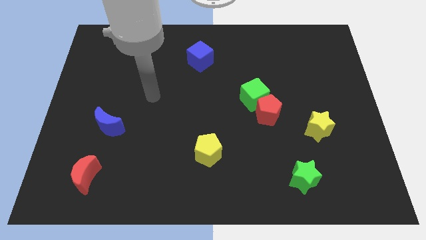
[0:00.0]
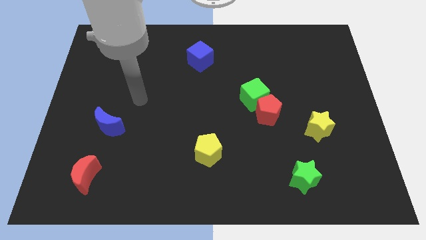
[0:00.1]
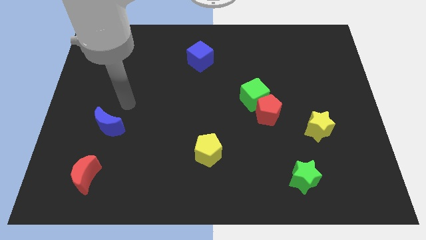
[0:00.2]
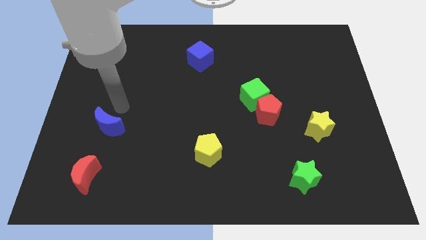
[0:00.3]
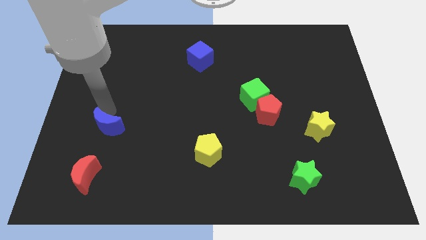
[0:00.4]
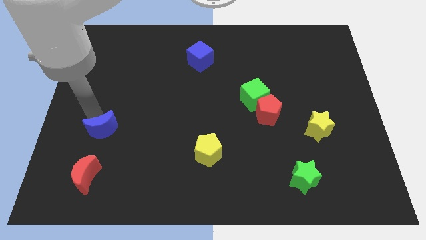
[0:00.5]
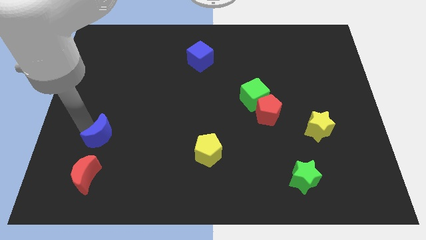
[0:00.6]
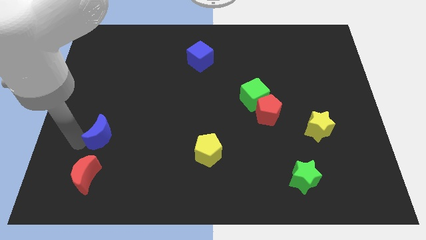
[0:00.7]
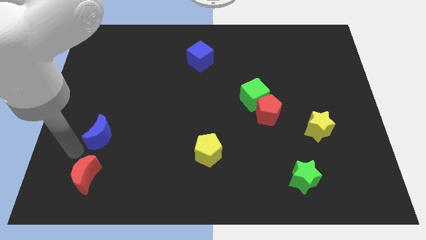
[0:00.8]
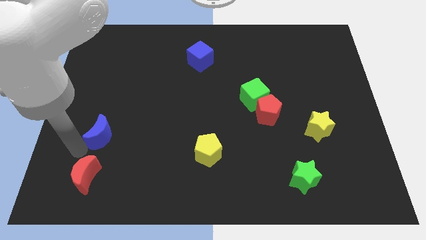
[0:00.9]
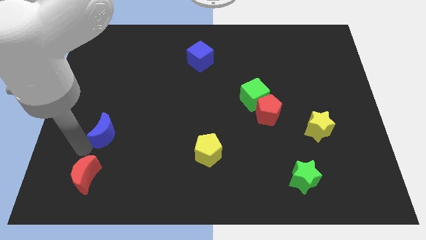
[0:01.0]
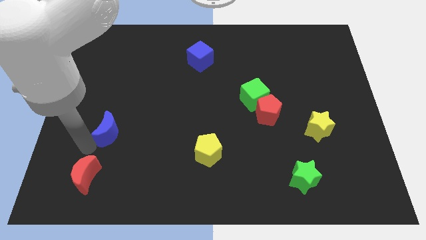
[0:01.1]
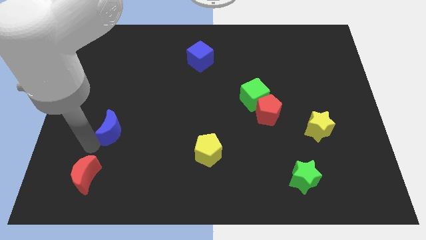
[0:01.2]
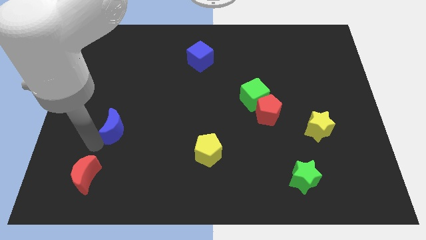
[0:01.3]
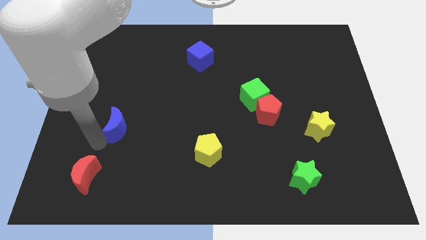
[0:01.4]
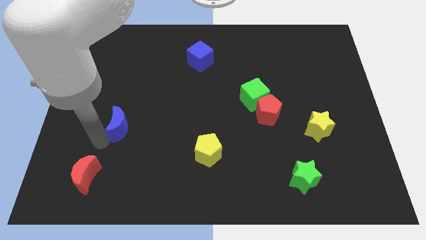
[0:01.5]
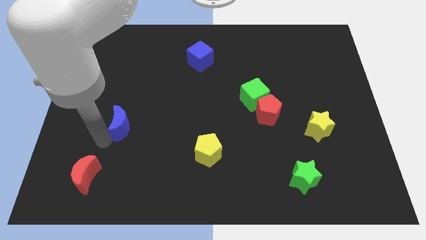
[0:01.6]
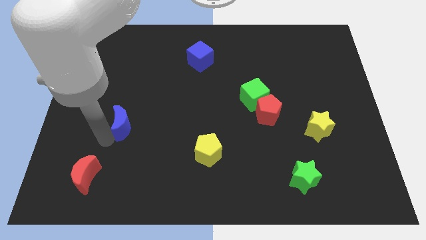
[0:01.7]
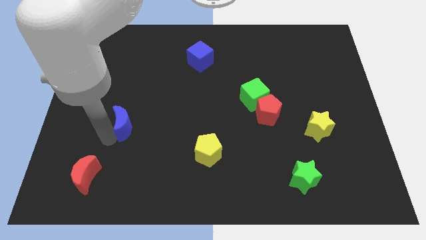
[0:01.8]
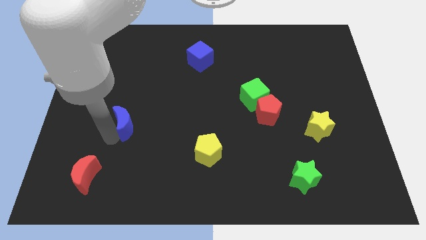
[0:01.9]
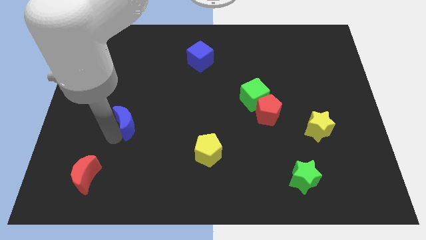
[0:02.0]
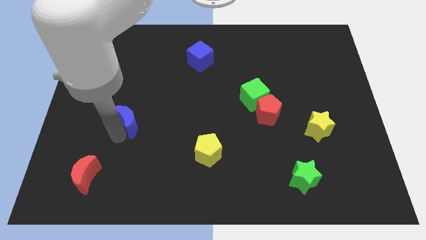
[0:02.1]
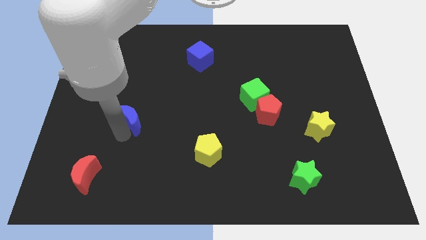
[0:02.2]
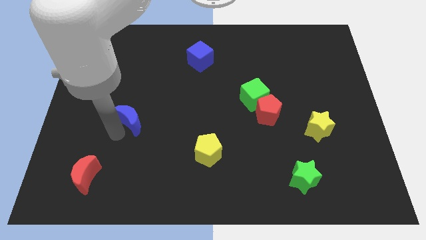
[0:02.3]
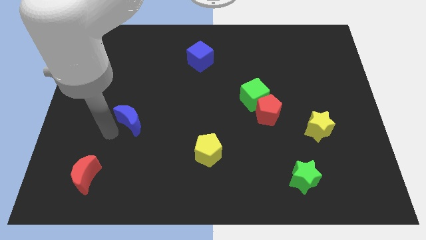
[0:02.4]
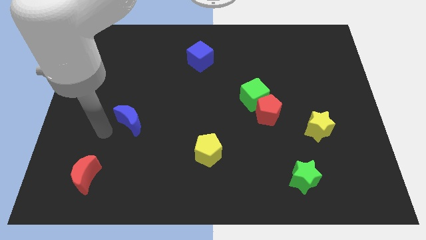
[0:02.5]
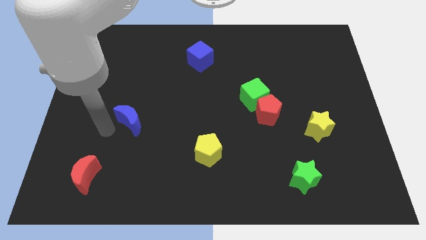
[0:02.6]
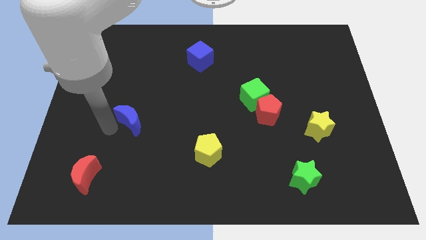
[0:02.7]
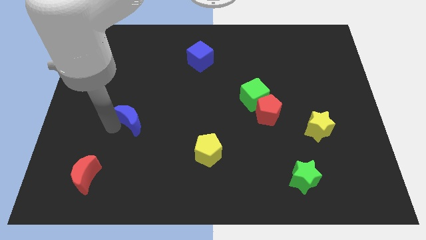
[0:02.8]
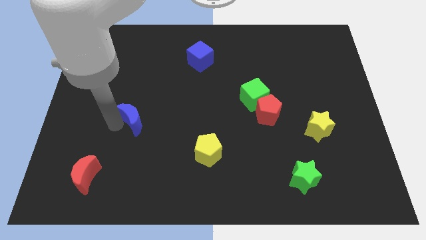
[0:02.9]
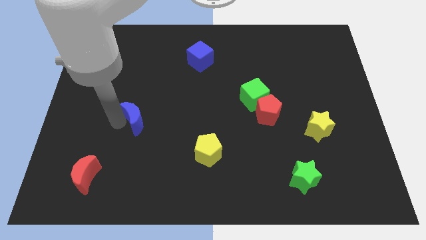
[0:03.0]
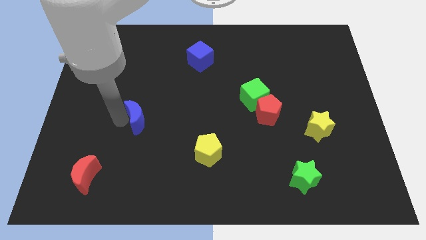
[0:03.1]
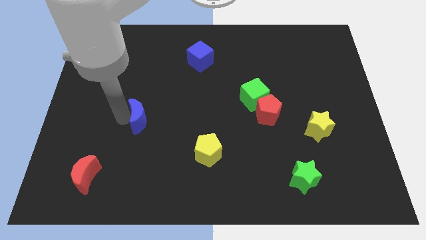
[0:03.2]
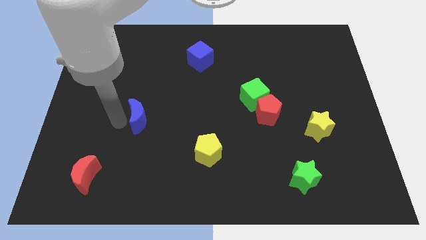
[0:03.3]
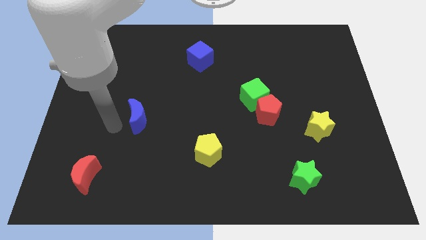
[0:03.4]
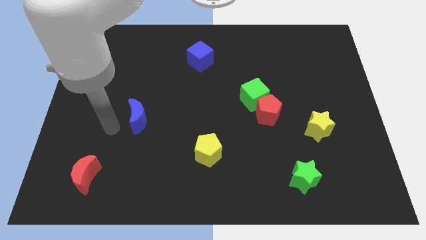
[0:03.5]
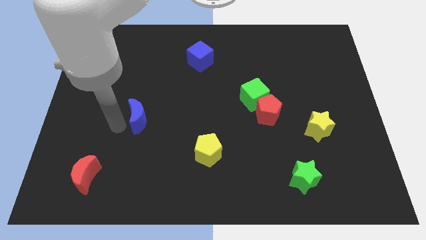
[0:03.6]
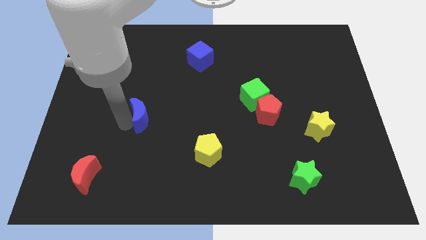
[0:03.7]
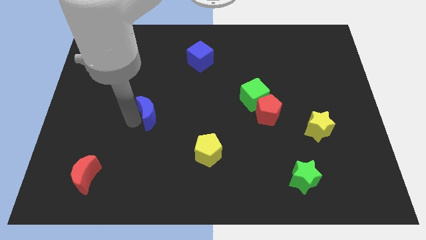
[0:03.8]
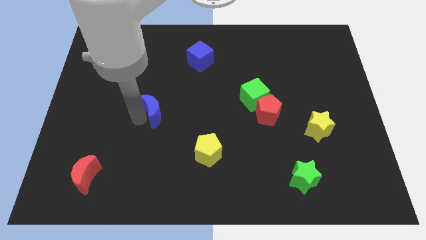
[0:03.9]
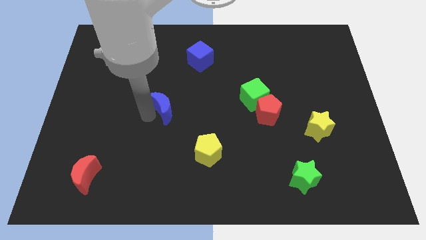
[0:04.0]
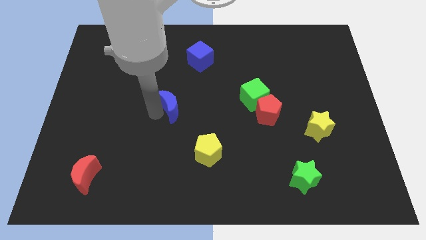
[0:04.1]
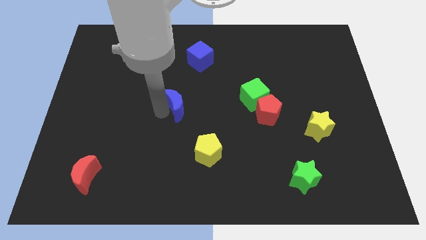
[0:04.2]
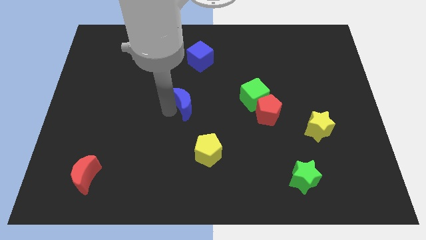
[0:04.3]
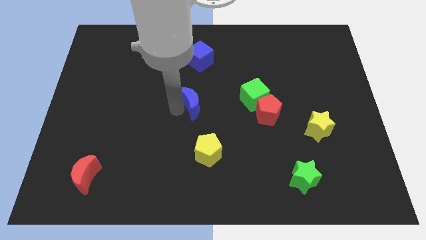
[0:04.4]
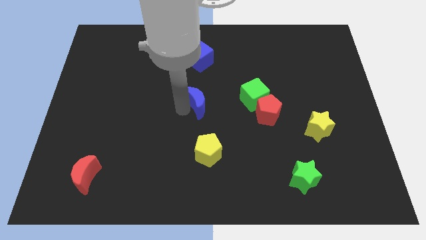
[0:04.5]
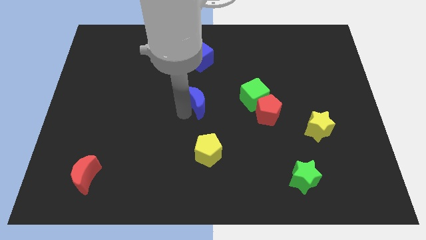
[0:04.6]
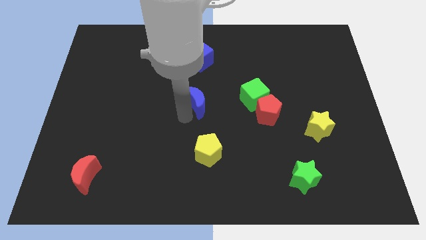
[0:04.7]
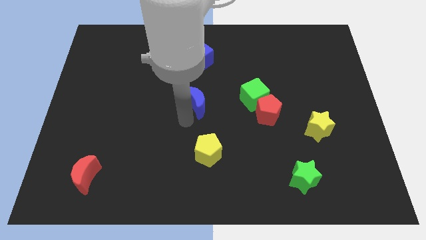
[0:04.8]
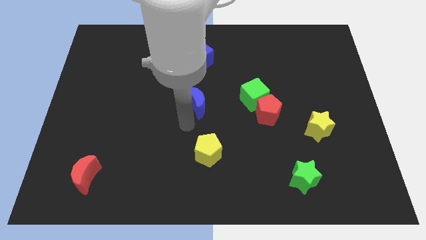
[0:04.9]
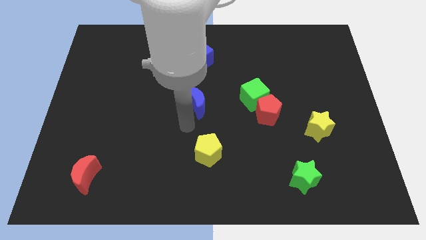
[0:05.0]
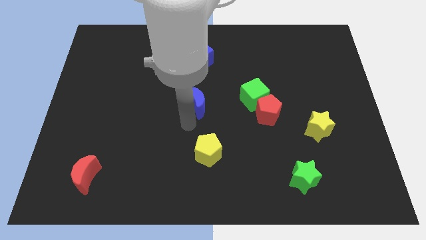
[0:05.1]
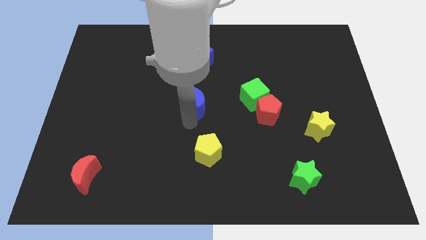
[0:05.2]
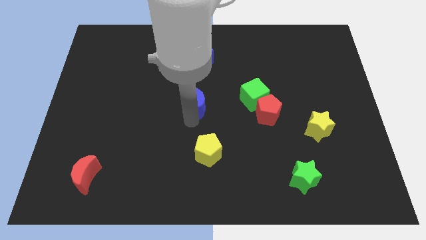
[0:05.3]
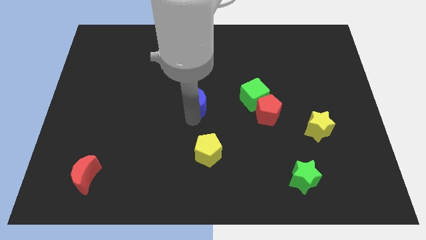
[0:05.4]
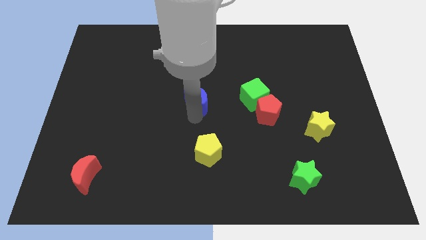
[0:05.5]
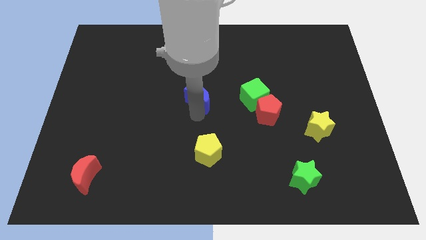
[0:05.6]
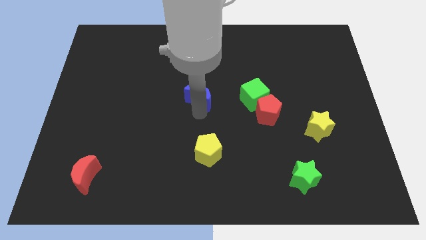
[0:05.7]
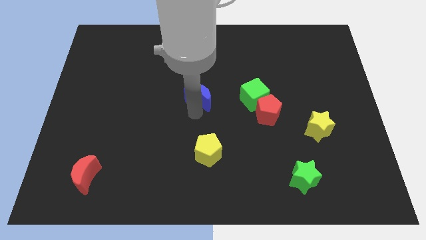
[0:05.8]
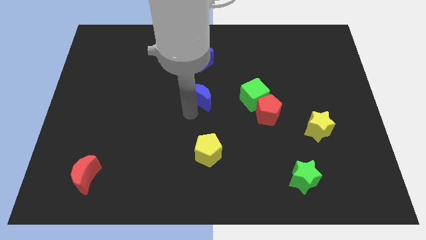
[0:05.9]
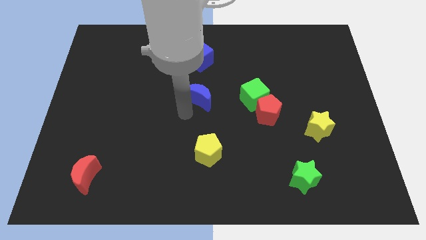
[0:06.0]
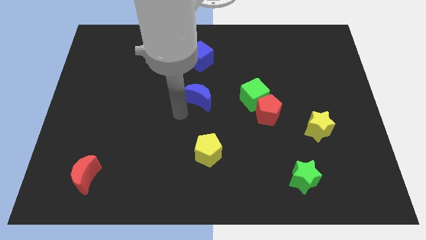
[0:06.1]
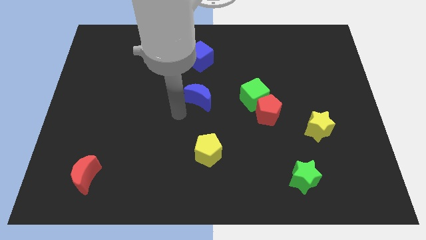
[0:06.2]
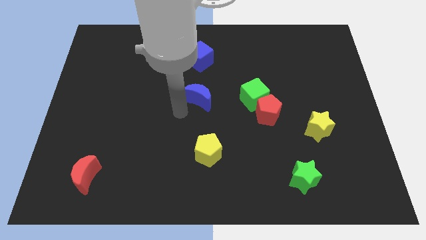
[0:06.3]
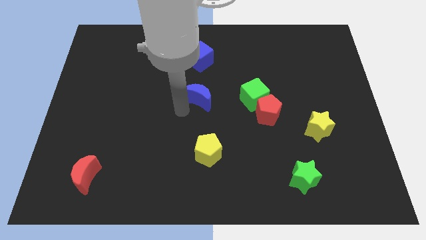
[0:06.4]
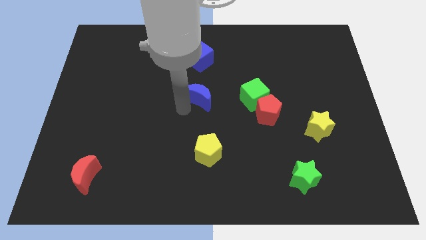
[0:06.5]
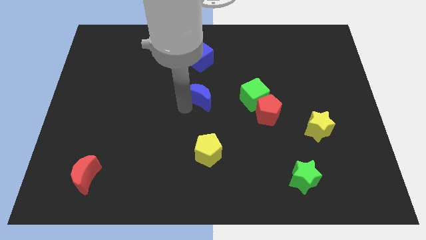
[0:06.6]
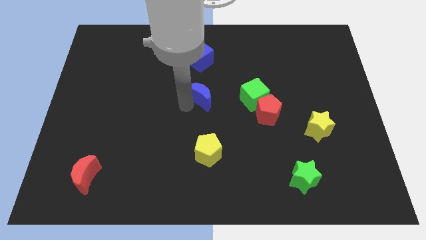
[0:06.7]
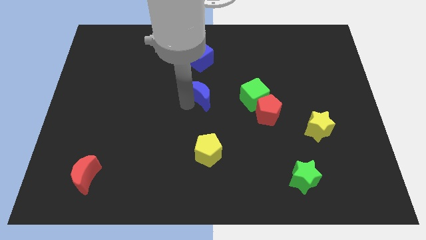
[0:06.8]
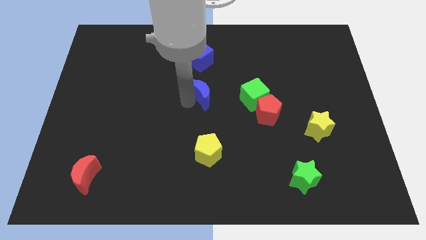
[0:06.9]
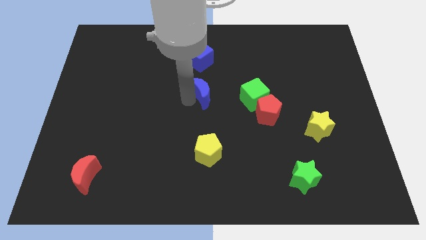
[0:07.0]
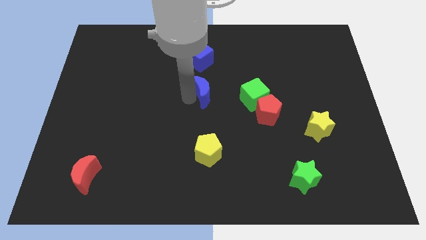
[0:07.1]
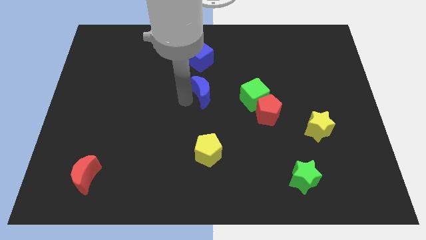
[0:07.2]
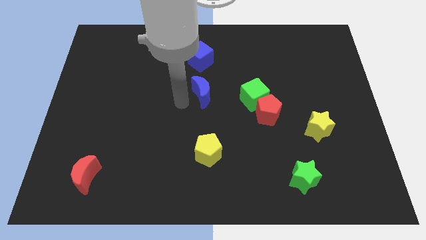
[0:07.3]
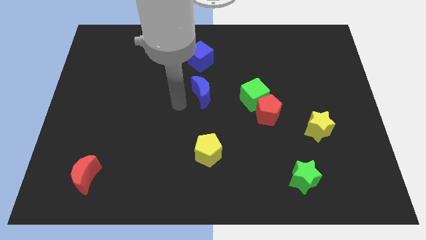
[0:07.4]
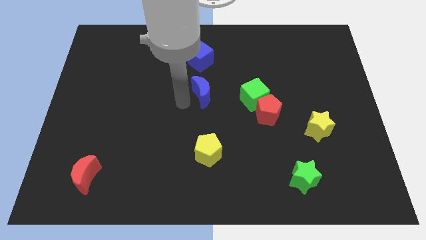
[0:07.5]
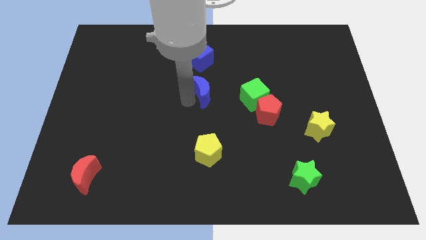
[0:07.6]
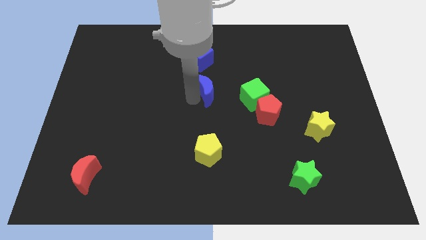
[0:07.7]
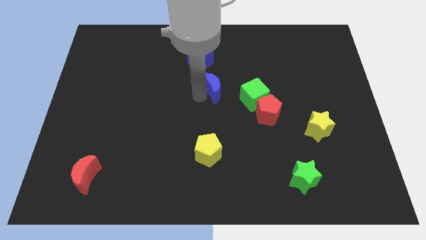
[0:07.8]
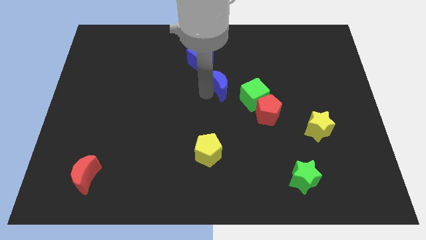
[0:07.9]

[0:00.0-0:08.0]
put the blue moon to the top left side of the green cube
